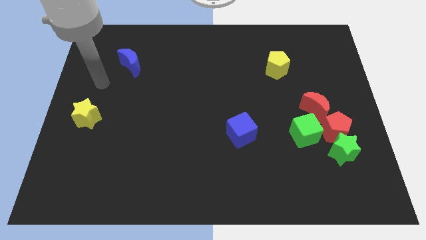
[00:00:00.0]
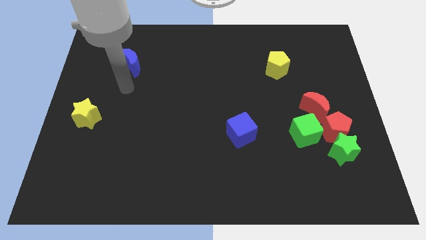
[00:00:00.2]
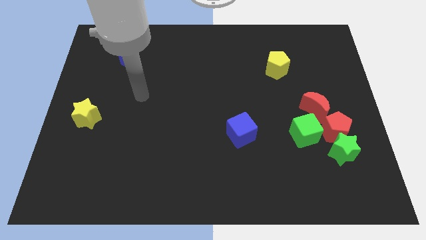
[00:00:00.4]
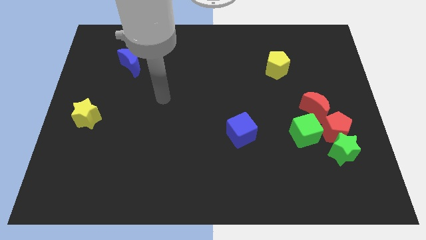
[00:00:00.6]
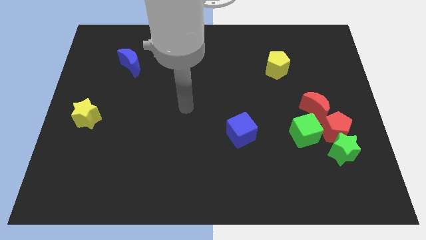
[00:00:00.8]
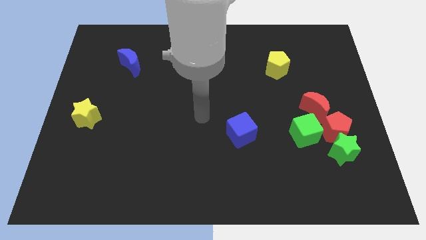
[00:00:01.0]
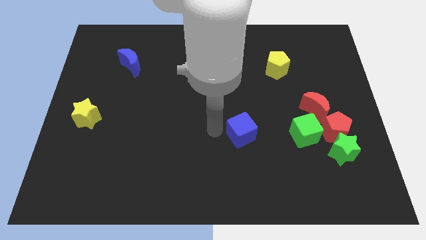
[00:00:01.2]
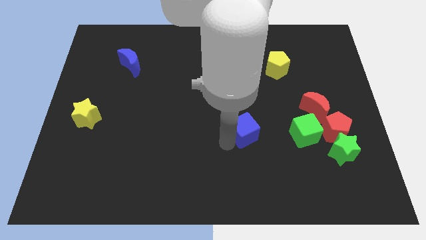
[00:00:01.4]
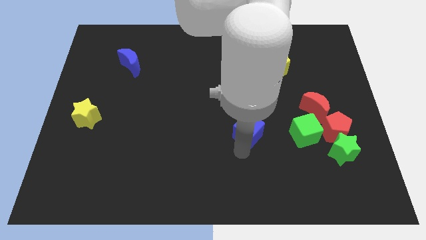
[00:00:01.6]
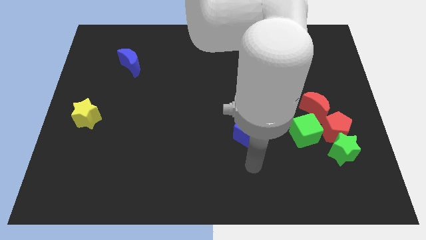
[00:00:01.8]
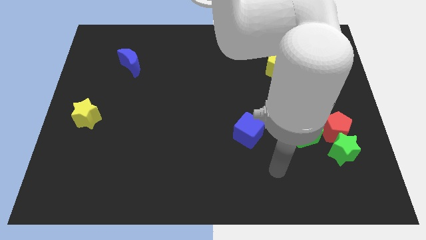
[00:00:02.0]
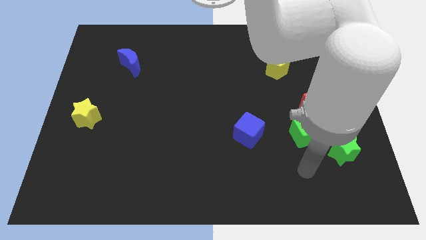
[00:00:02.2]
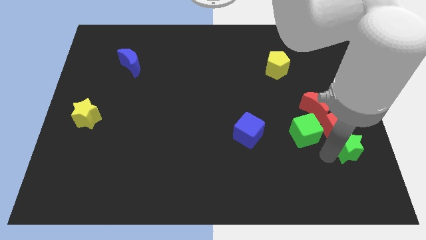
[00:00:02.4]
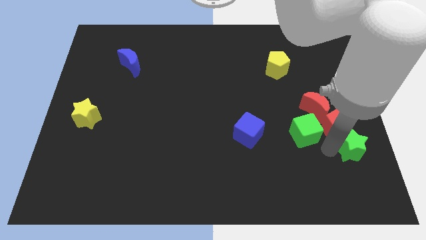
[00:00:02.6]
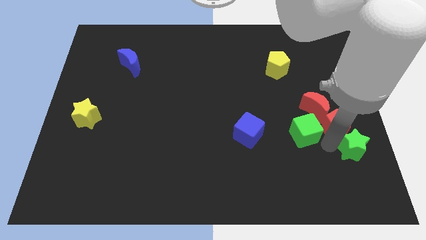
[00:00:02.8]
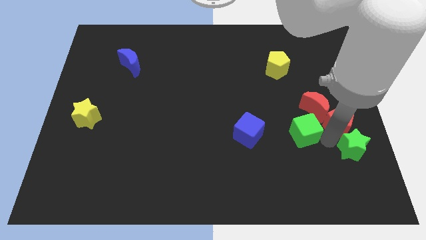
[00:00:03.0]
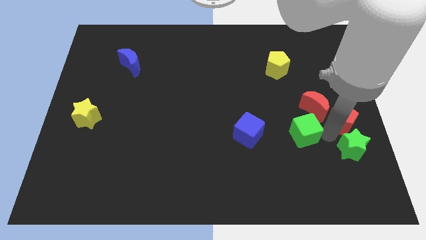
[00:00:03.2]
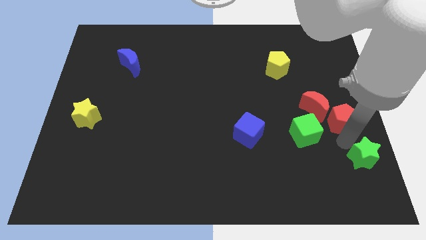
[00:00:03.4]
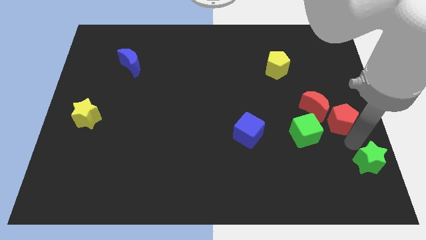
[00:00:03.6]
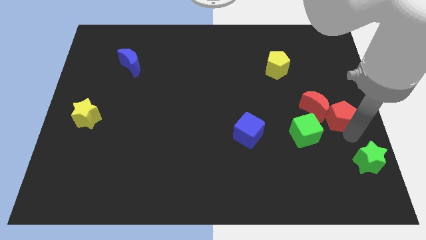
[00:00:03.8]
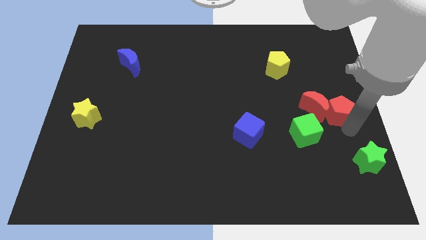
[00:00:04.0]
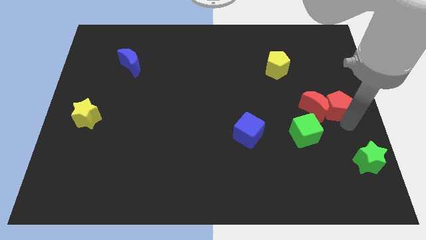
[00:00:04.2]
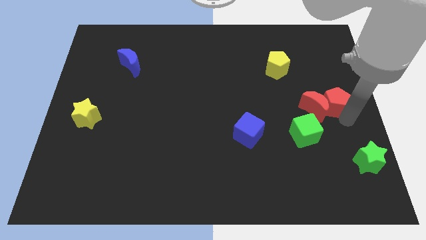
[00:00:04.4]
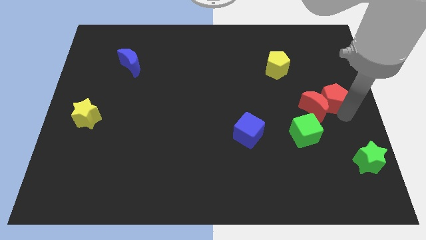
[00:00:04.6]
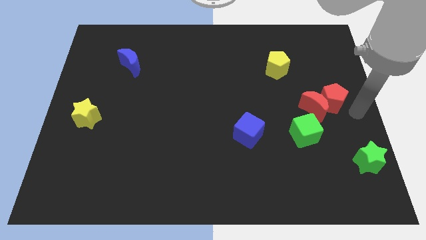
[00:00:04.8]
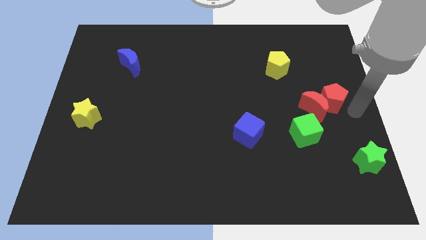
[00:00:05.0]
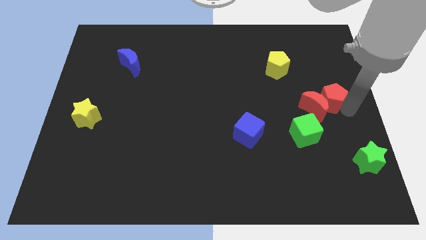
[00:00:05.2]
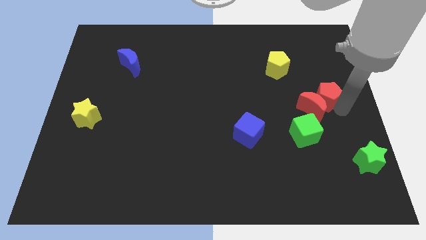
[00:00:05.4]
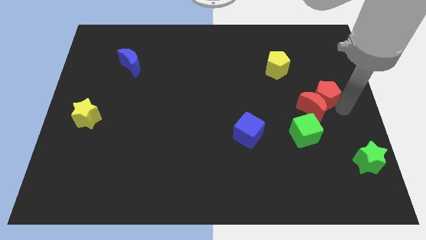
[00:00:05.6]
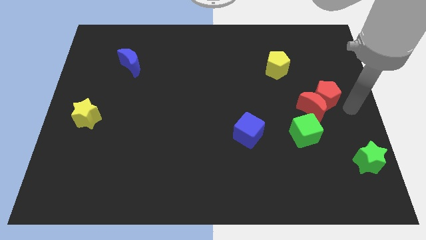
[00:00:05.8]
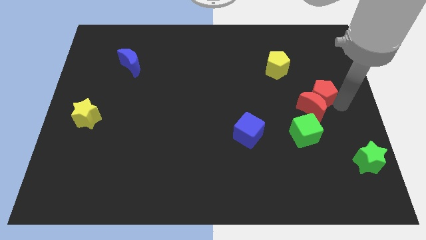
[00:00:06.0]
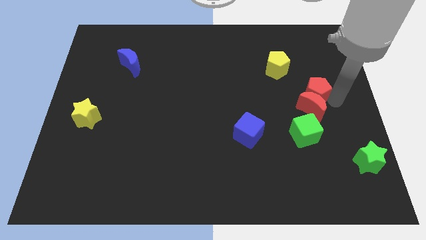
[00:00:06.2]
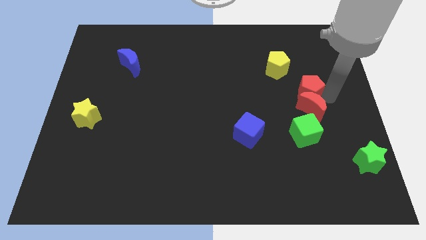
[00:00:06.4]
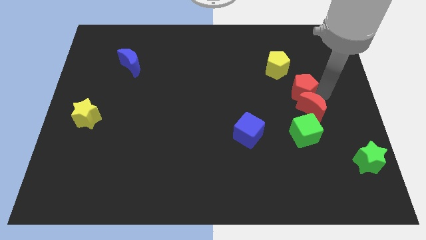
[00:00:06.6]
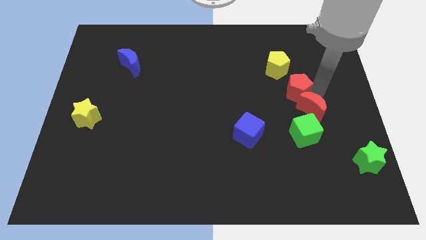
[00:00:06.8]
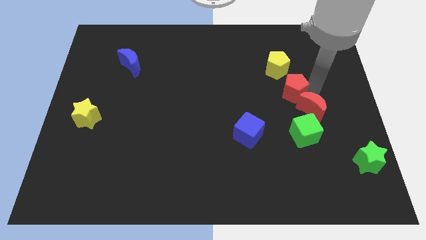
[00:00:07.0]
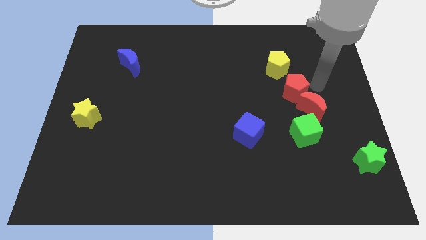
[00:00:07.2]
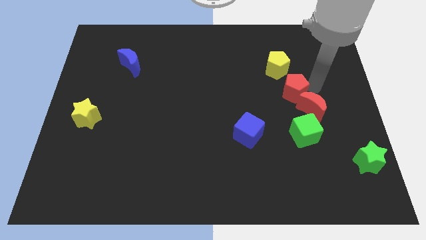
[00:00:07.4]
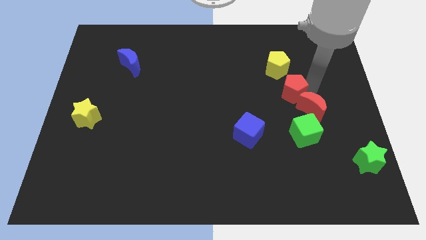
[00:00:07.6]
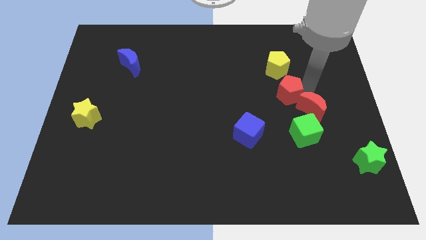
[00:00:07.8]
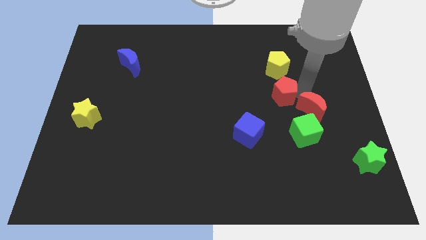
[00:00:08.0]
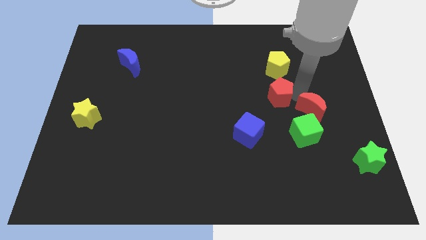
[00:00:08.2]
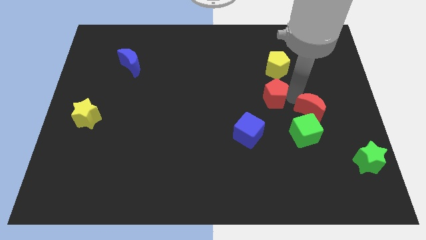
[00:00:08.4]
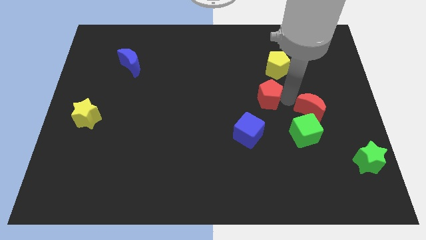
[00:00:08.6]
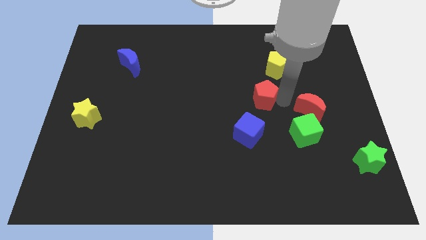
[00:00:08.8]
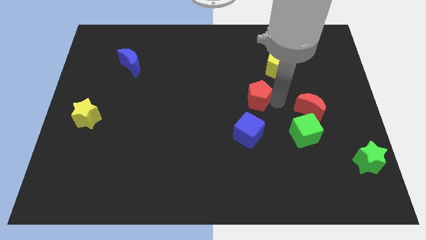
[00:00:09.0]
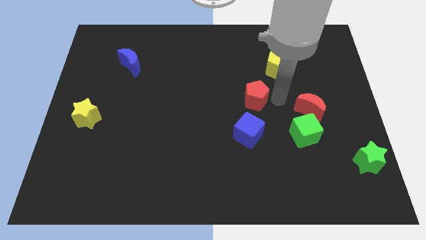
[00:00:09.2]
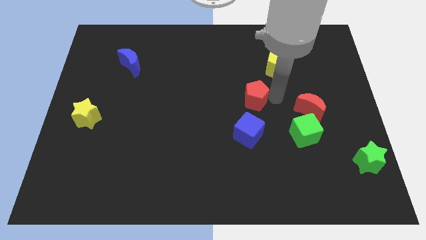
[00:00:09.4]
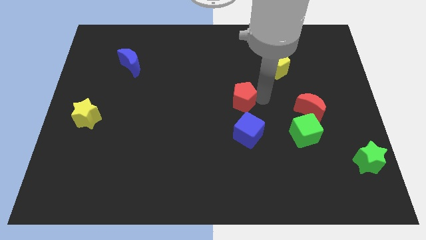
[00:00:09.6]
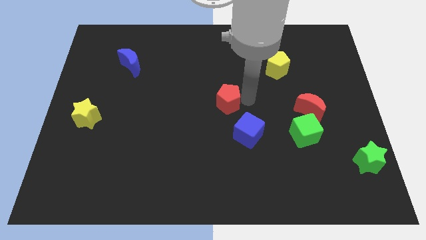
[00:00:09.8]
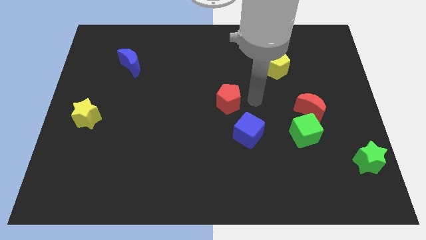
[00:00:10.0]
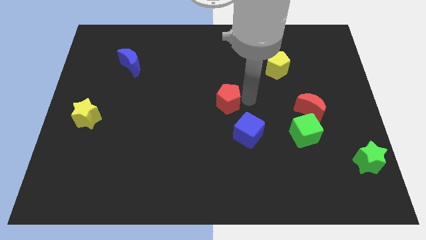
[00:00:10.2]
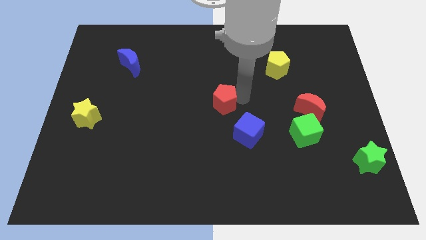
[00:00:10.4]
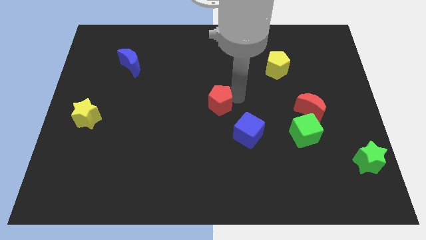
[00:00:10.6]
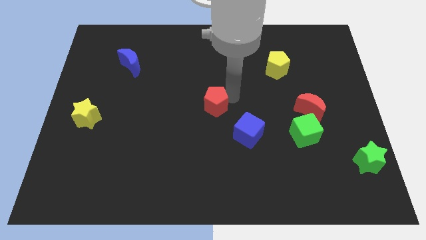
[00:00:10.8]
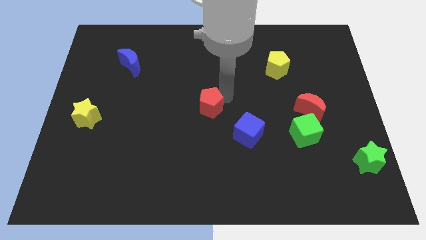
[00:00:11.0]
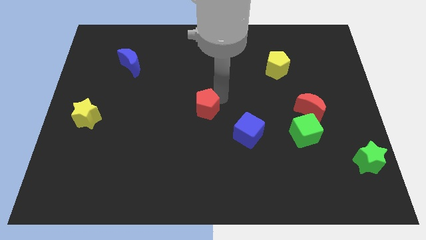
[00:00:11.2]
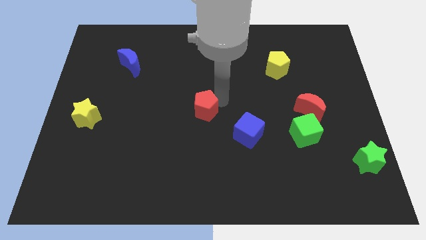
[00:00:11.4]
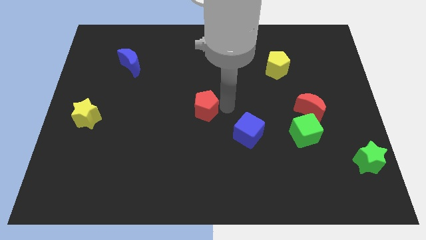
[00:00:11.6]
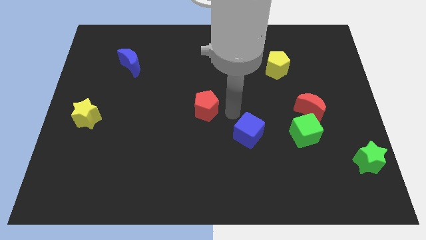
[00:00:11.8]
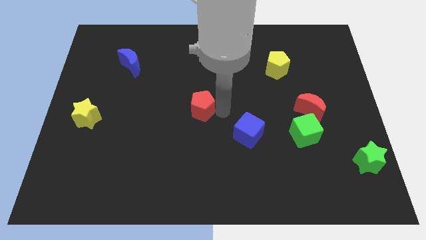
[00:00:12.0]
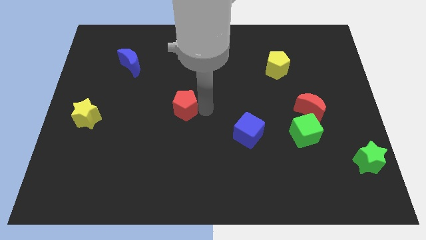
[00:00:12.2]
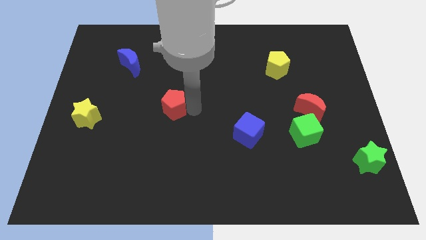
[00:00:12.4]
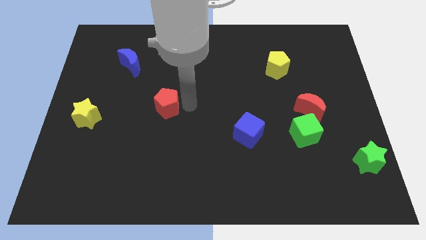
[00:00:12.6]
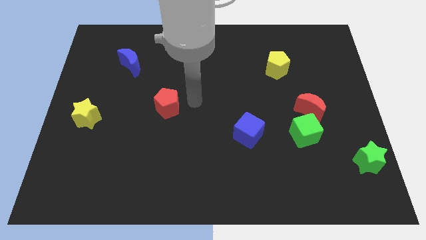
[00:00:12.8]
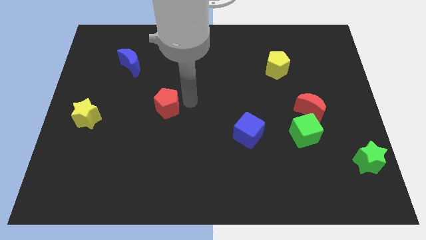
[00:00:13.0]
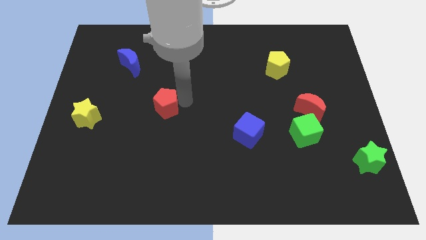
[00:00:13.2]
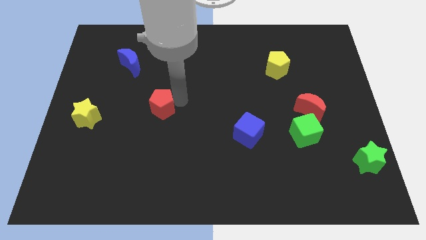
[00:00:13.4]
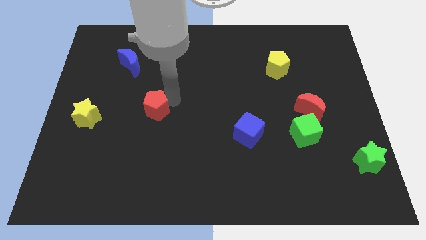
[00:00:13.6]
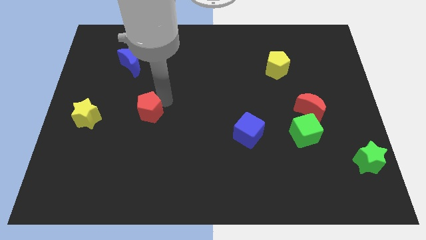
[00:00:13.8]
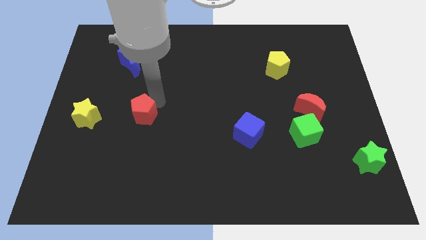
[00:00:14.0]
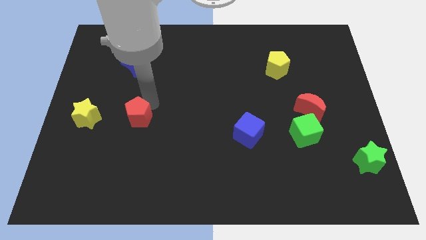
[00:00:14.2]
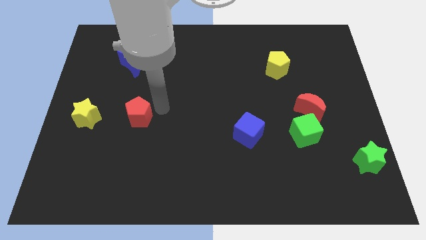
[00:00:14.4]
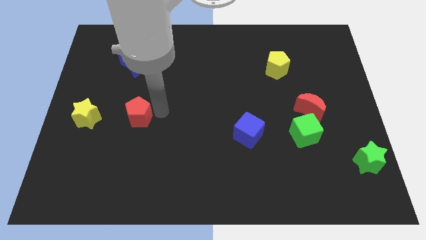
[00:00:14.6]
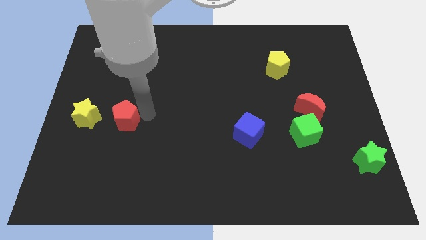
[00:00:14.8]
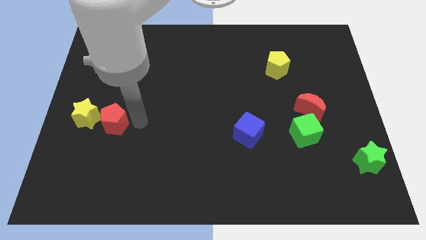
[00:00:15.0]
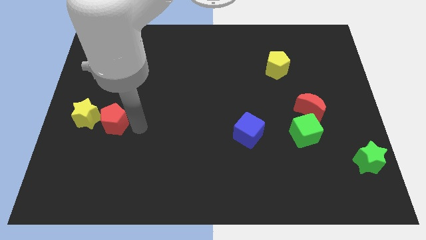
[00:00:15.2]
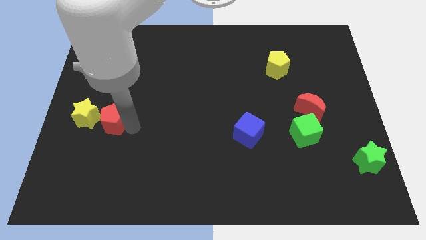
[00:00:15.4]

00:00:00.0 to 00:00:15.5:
push the red pentagon close to the yellow star
